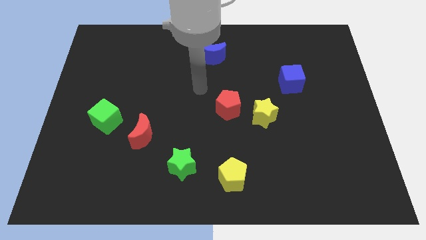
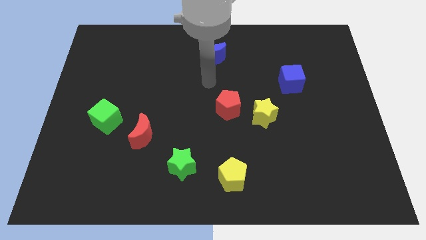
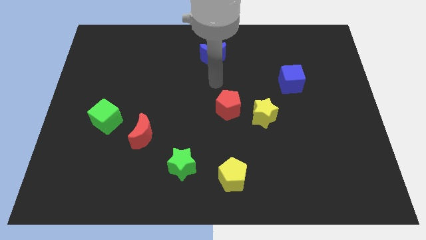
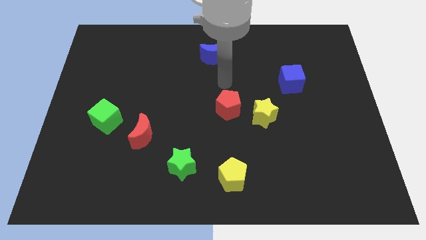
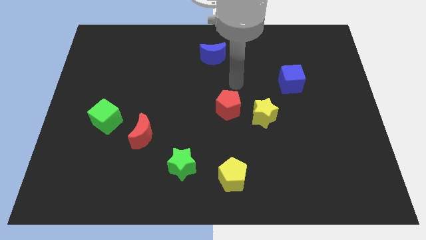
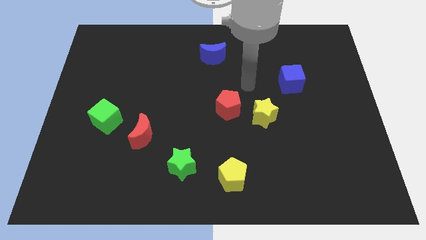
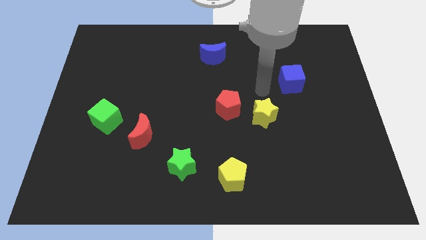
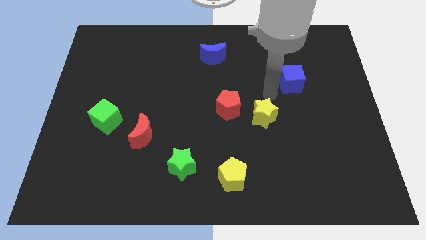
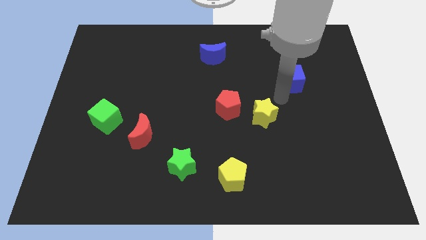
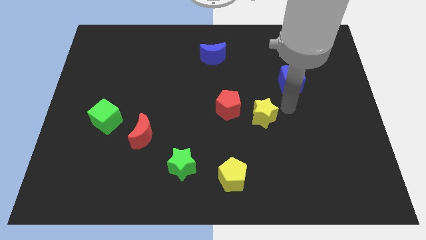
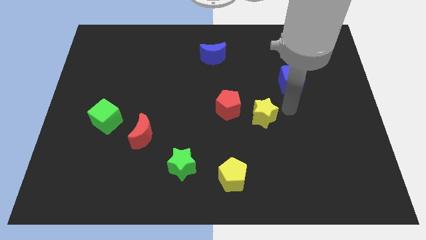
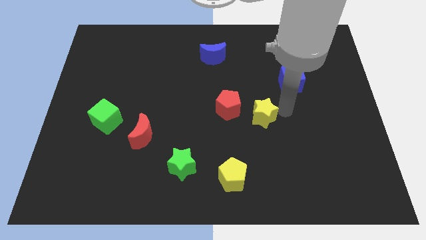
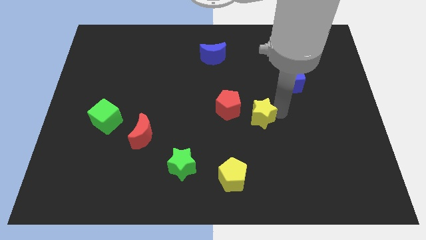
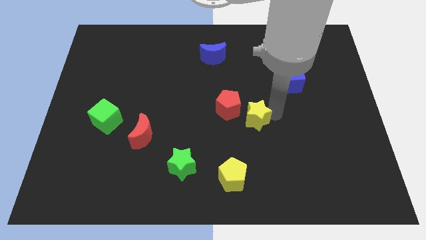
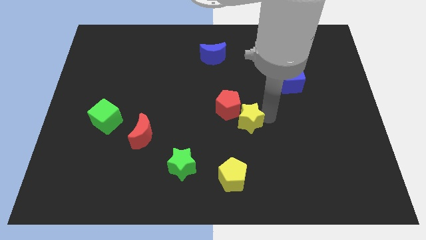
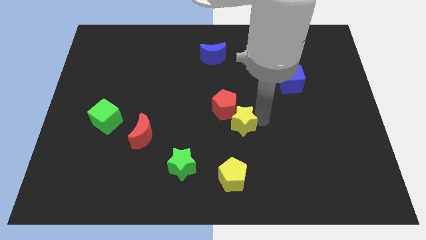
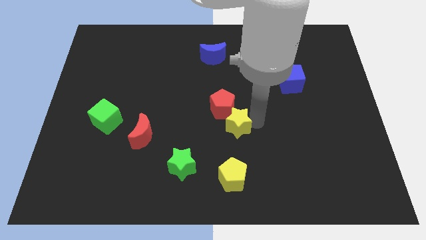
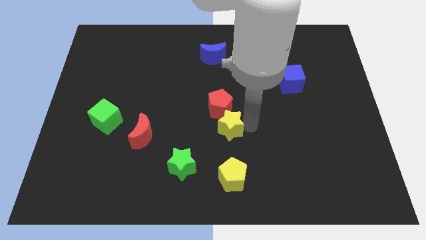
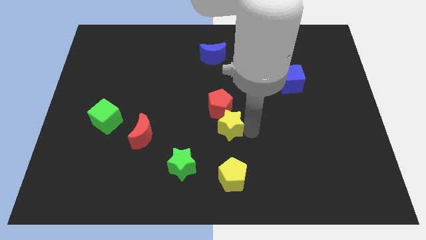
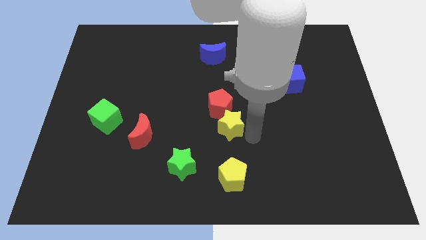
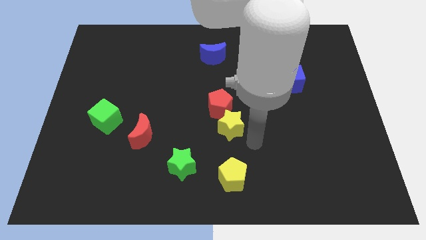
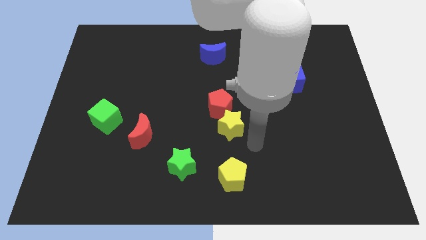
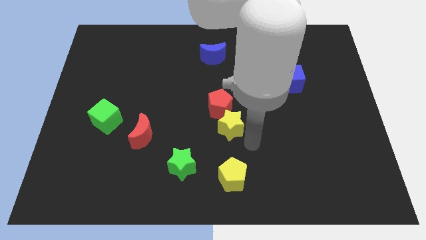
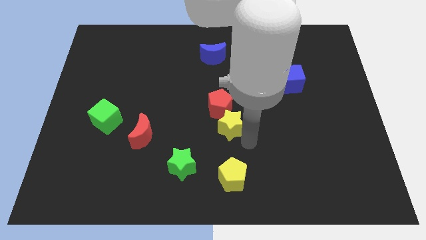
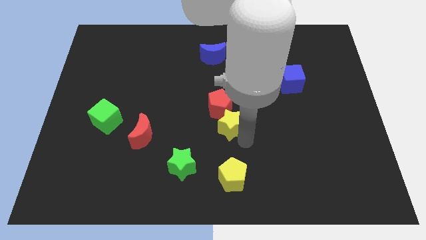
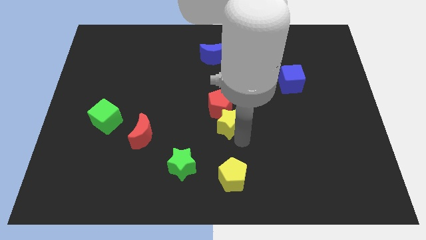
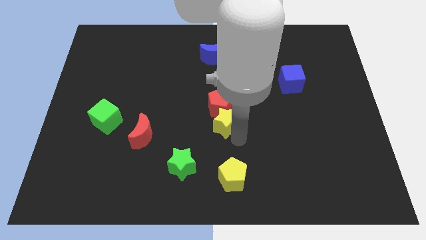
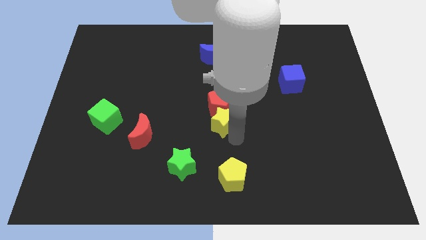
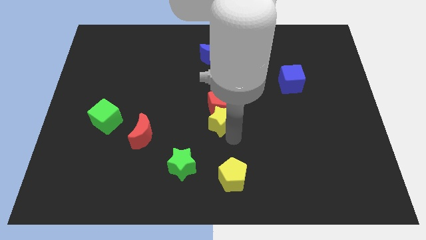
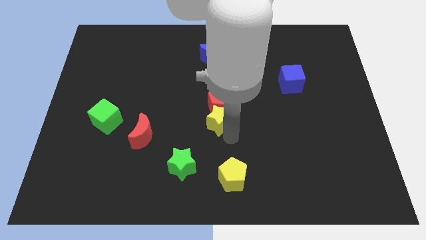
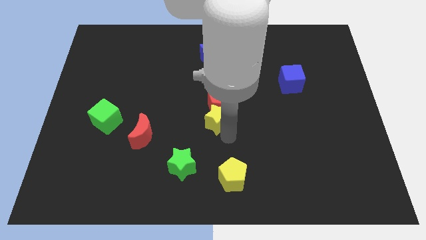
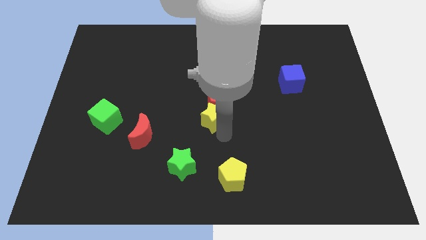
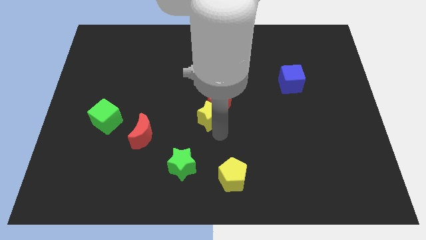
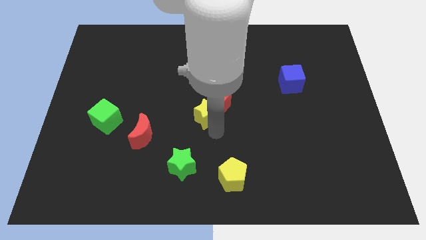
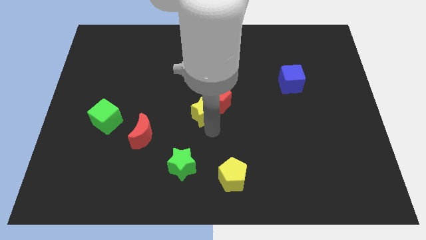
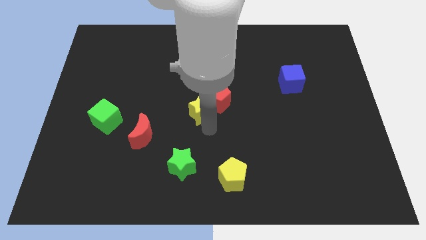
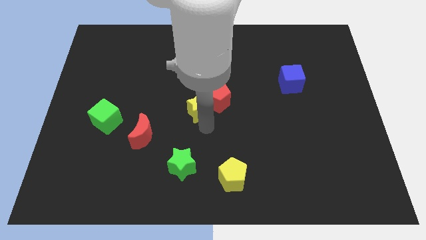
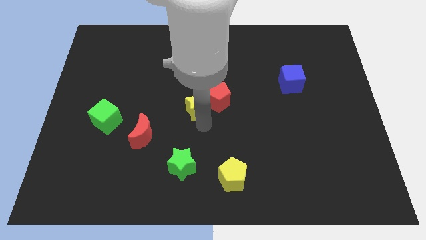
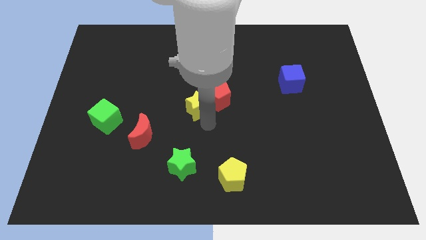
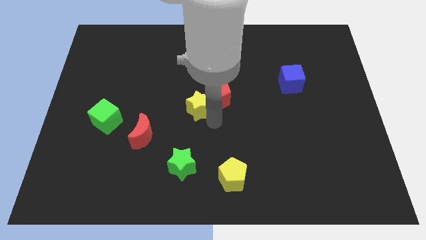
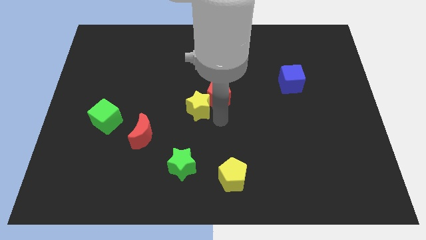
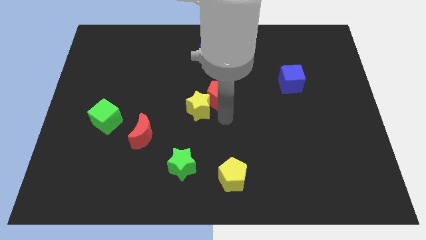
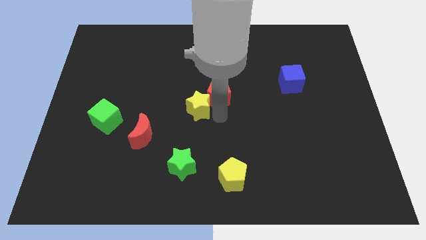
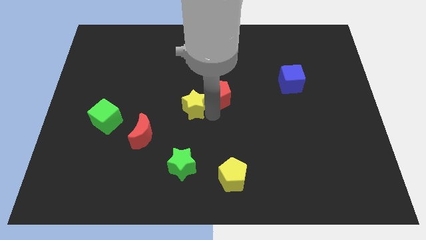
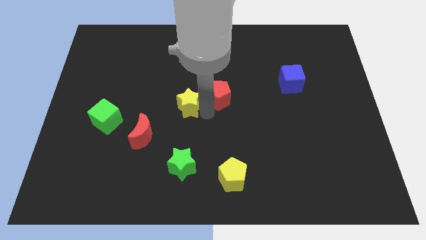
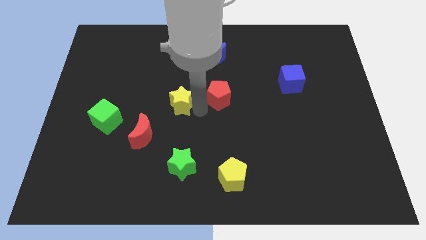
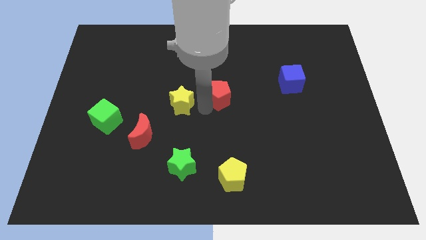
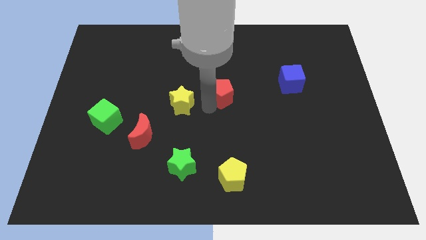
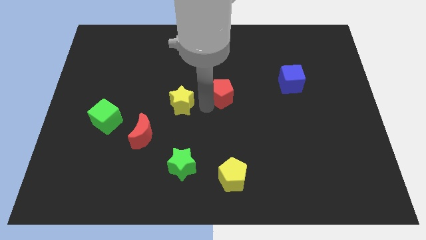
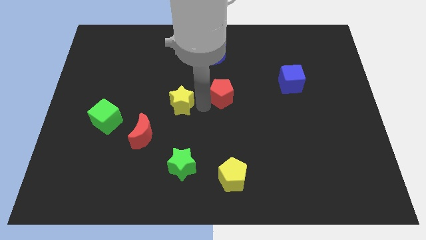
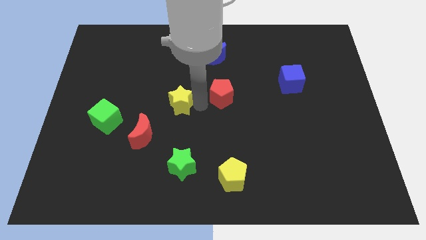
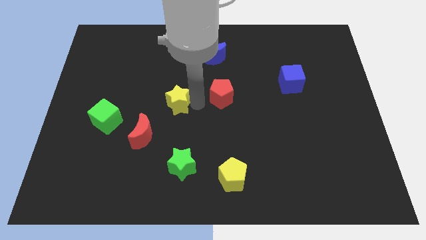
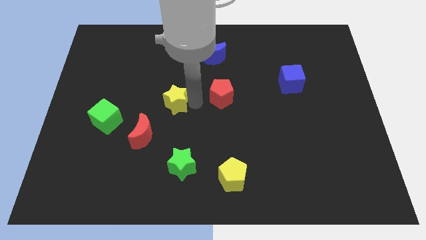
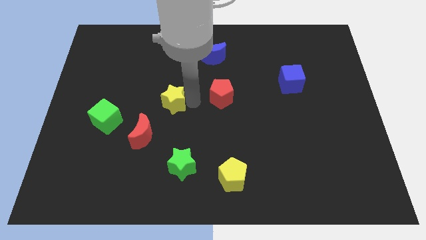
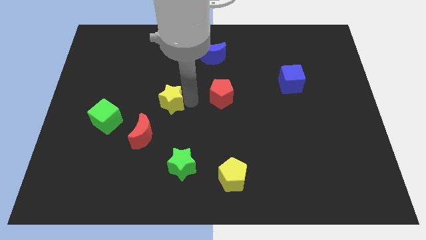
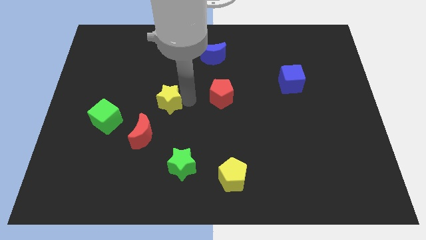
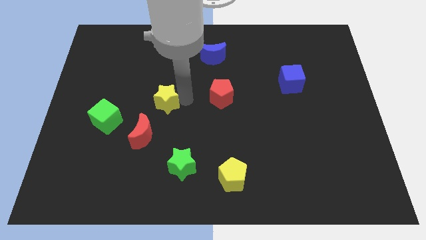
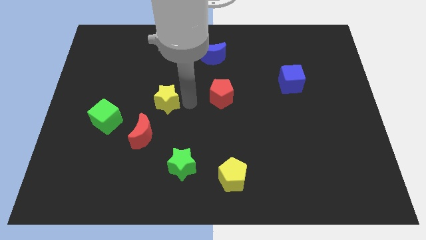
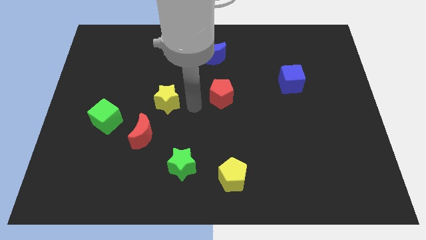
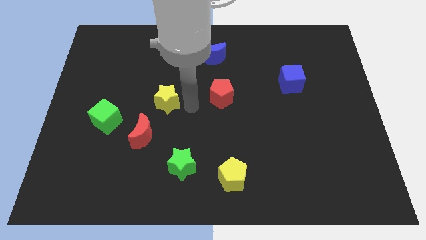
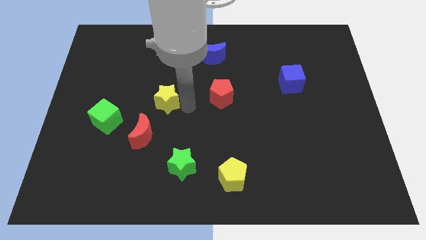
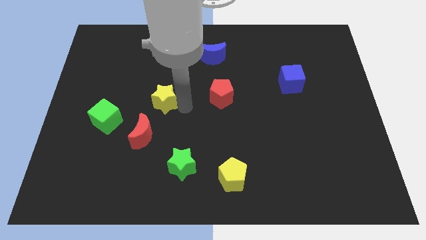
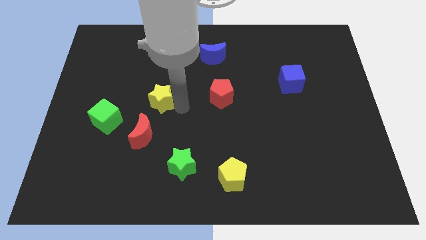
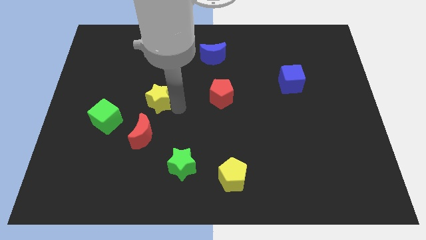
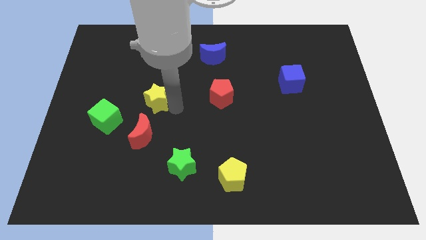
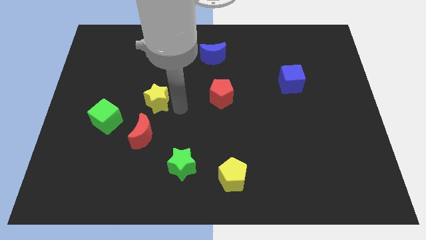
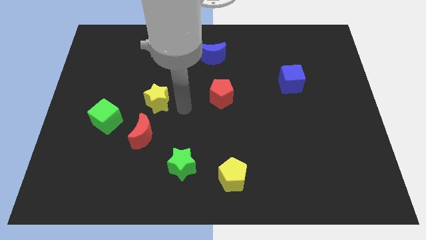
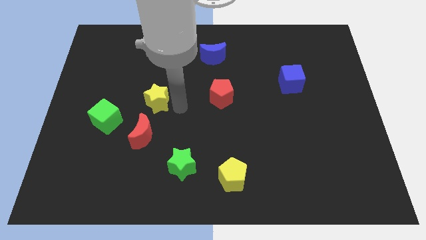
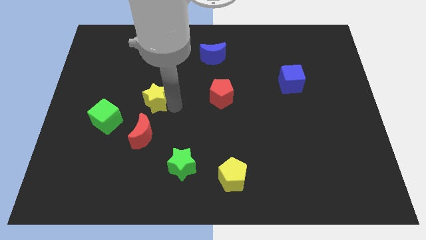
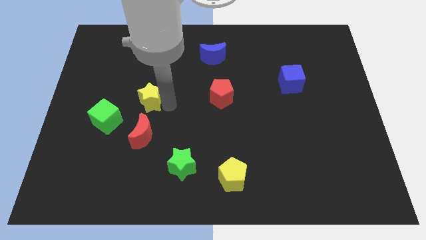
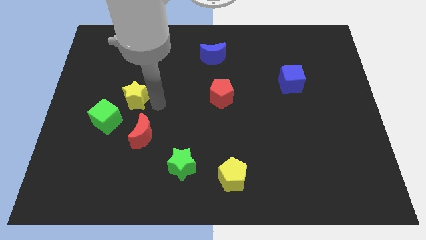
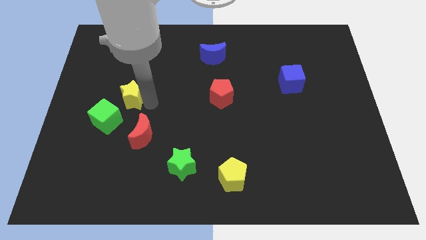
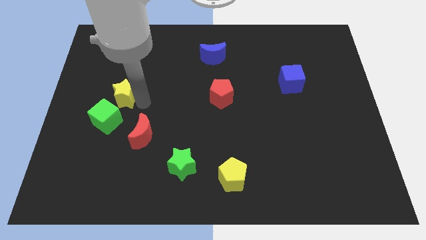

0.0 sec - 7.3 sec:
push the yellow star above the green cube
